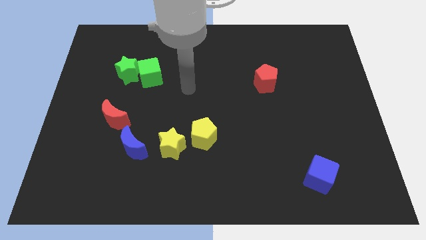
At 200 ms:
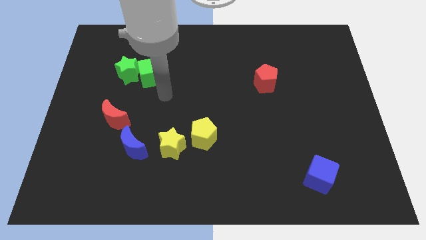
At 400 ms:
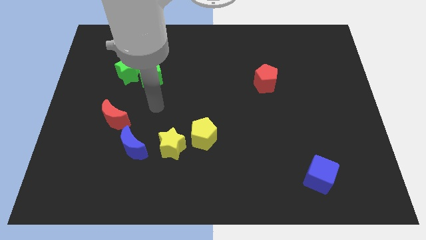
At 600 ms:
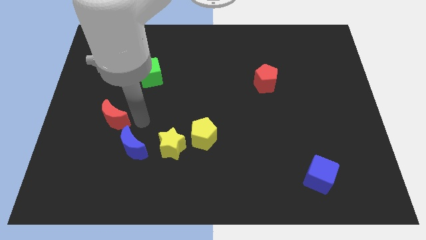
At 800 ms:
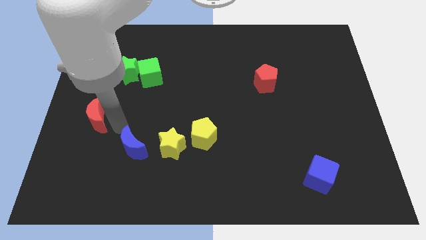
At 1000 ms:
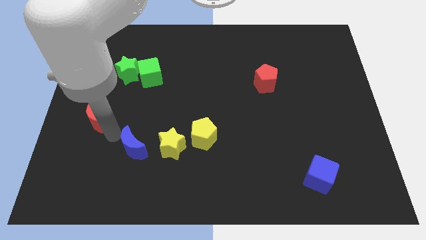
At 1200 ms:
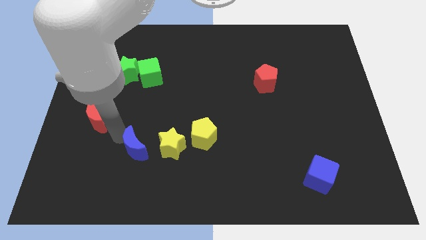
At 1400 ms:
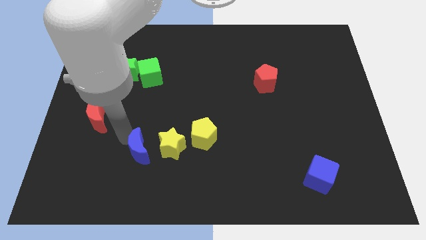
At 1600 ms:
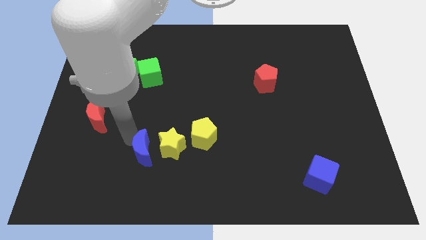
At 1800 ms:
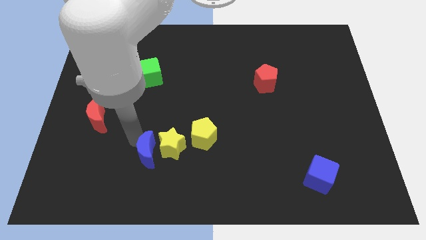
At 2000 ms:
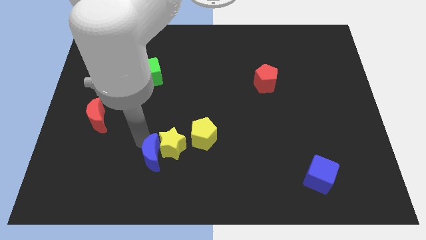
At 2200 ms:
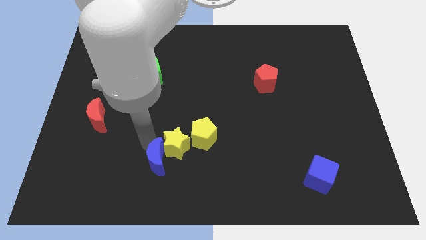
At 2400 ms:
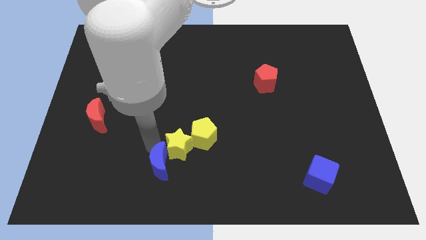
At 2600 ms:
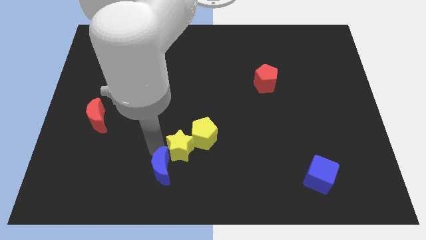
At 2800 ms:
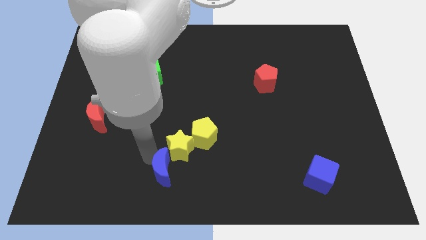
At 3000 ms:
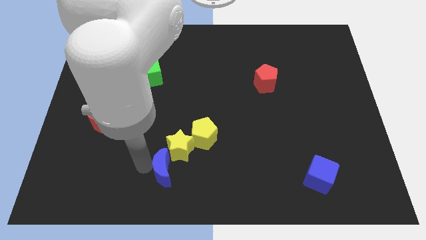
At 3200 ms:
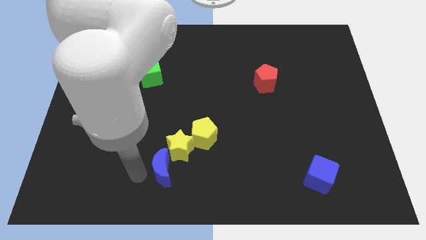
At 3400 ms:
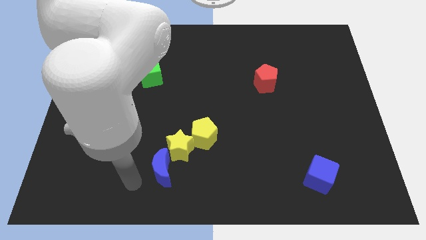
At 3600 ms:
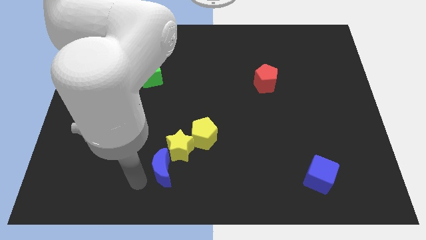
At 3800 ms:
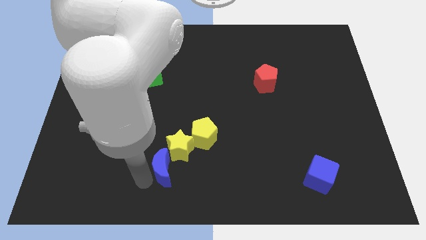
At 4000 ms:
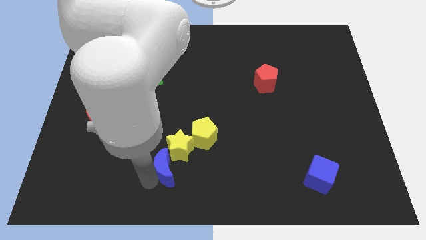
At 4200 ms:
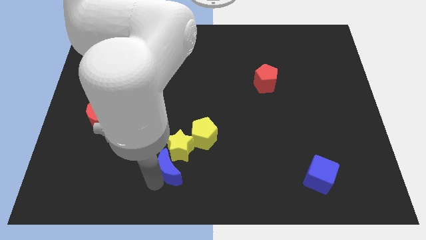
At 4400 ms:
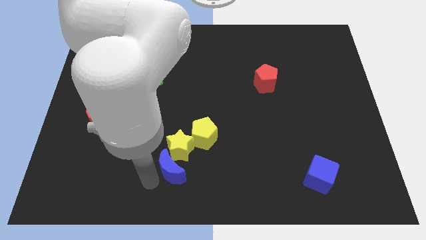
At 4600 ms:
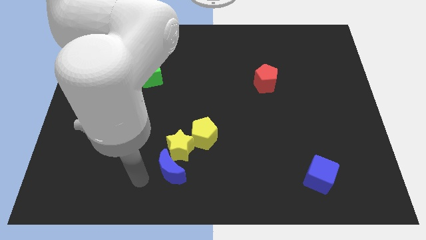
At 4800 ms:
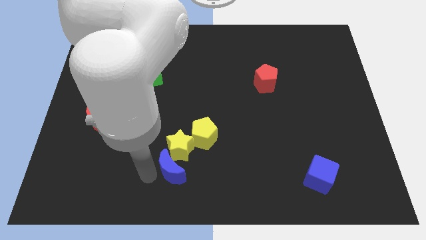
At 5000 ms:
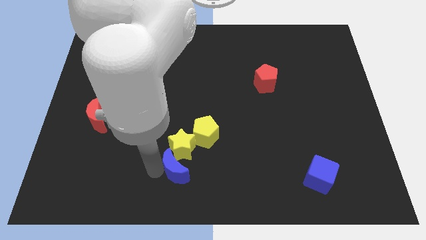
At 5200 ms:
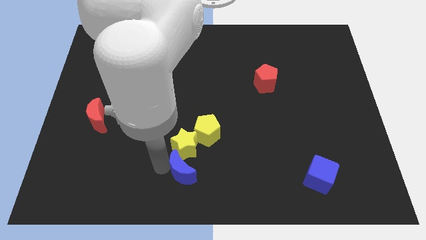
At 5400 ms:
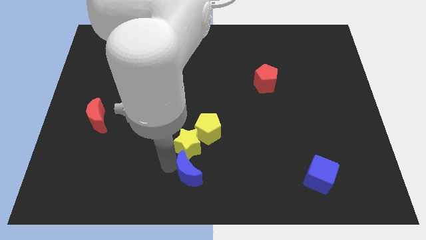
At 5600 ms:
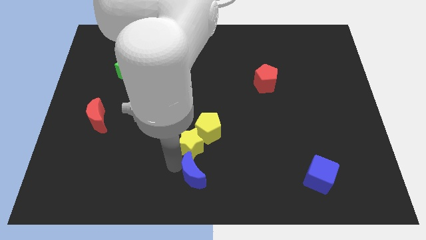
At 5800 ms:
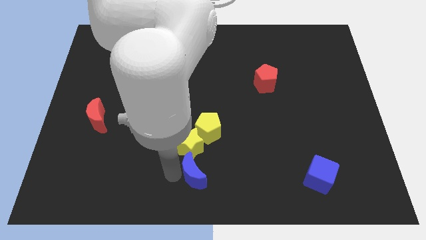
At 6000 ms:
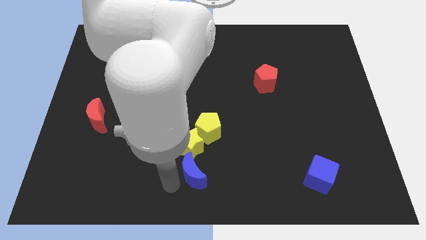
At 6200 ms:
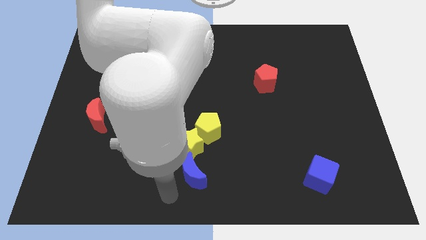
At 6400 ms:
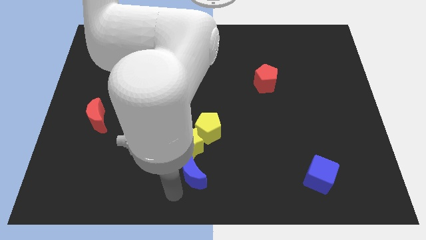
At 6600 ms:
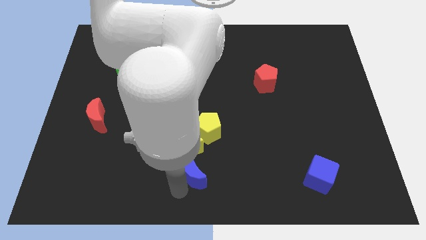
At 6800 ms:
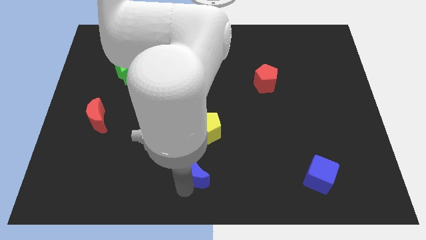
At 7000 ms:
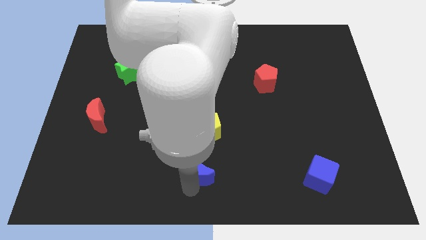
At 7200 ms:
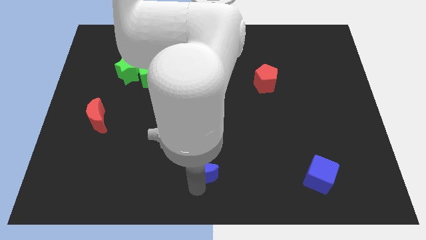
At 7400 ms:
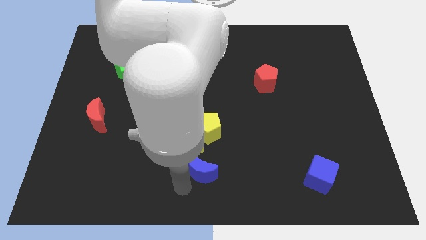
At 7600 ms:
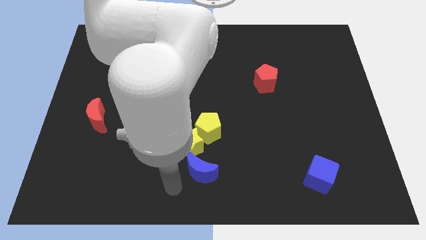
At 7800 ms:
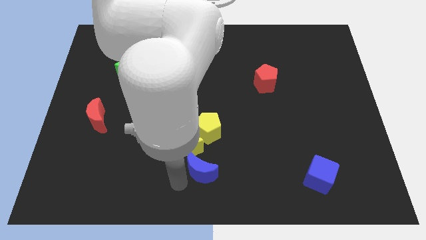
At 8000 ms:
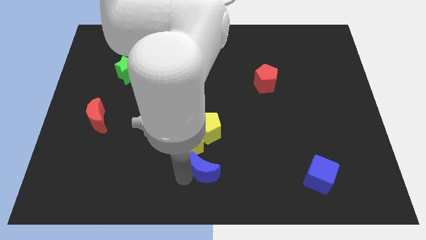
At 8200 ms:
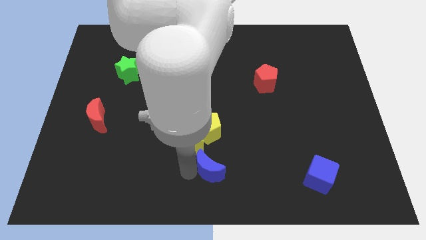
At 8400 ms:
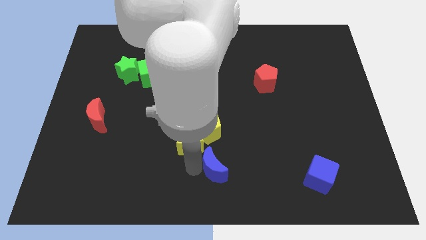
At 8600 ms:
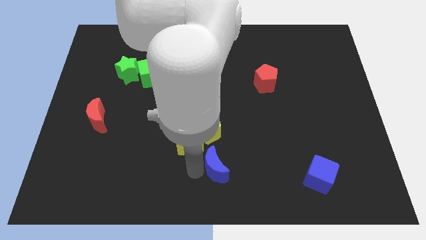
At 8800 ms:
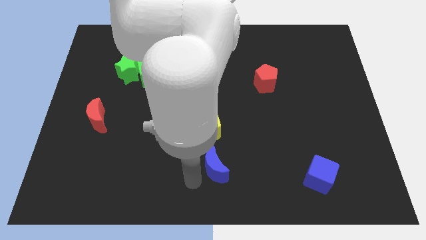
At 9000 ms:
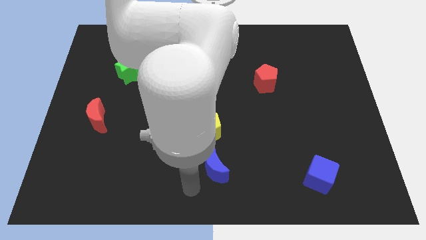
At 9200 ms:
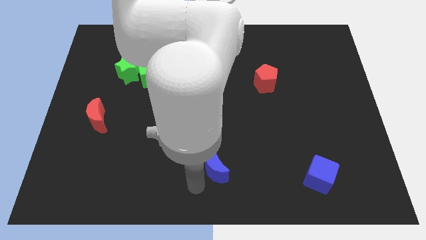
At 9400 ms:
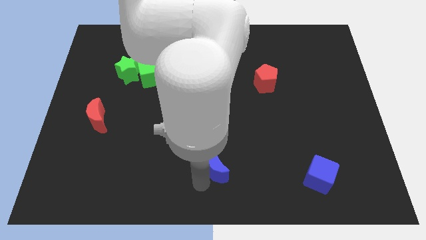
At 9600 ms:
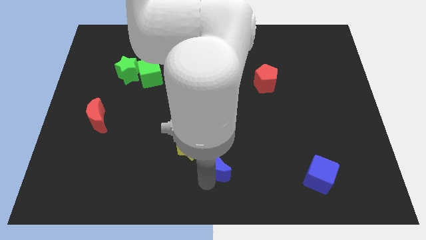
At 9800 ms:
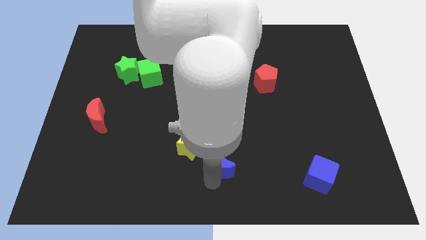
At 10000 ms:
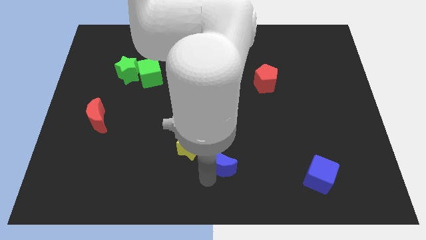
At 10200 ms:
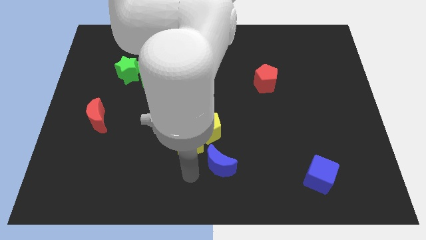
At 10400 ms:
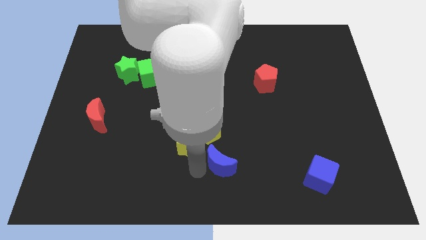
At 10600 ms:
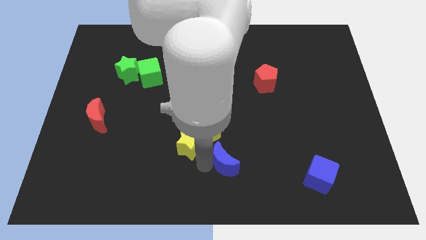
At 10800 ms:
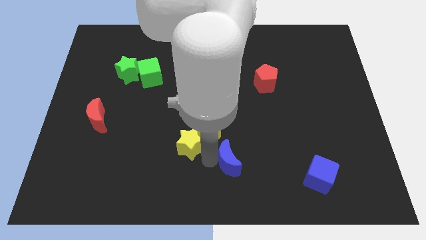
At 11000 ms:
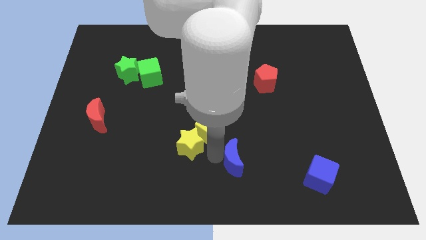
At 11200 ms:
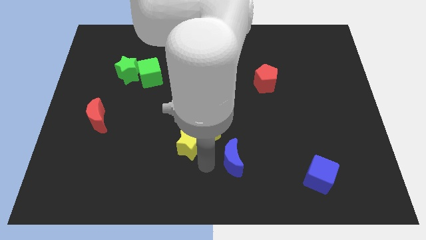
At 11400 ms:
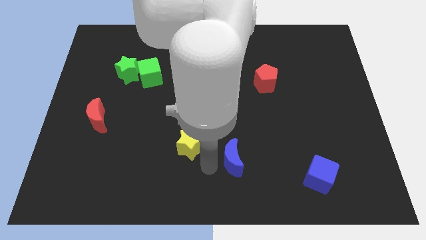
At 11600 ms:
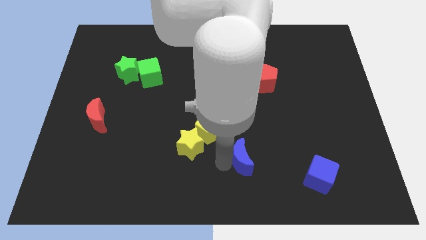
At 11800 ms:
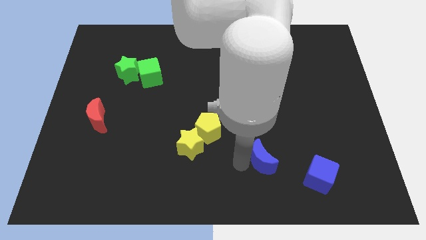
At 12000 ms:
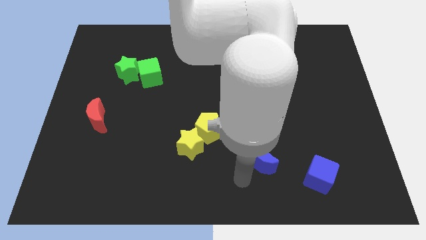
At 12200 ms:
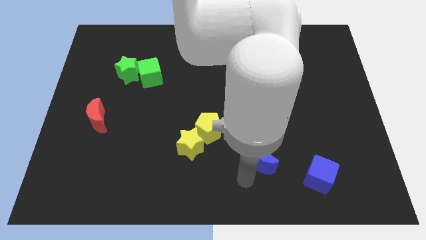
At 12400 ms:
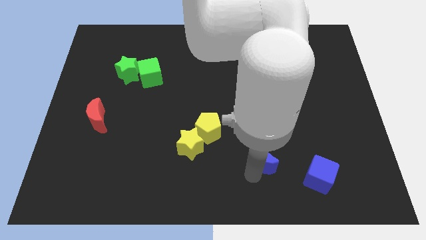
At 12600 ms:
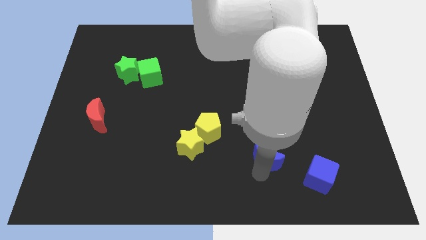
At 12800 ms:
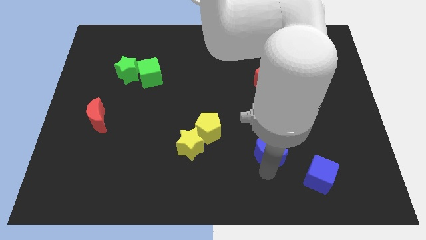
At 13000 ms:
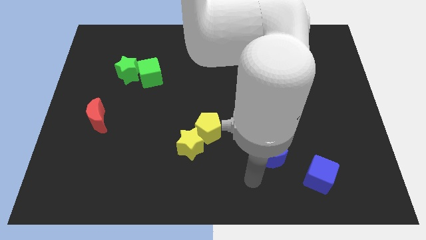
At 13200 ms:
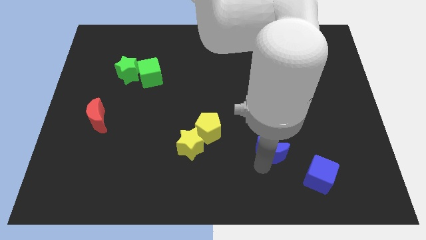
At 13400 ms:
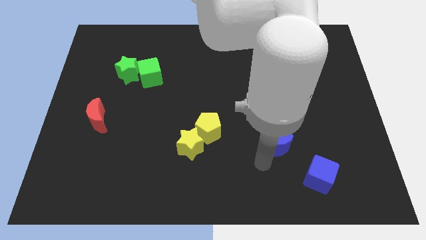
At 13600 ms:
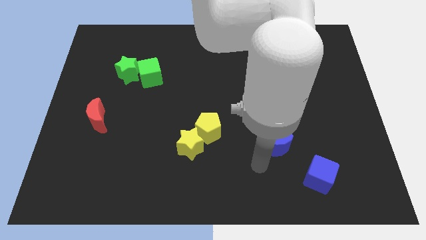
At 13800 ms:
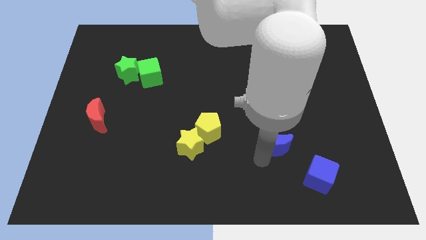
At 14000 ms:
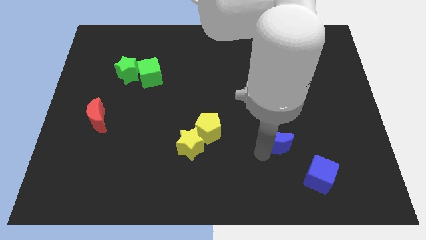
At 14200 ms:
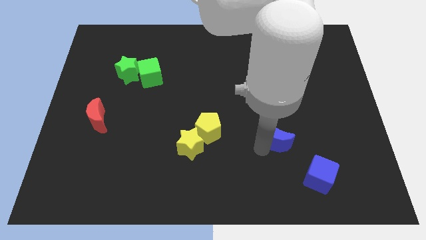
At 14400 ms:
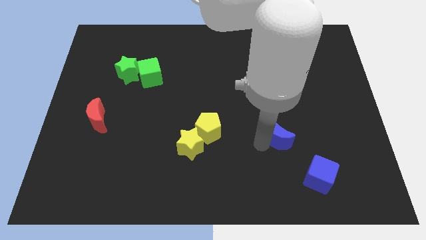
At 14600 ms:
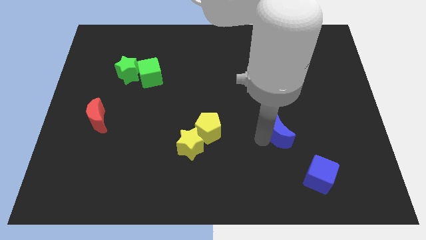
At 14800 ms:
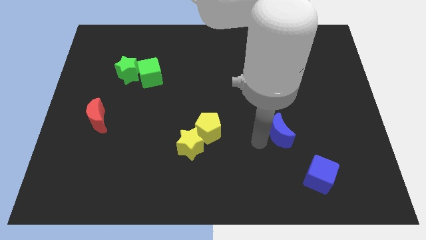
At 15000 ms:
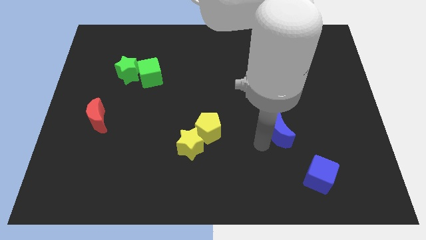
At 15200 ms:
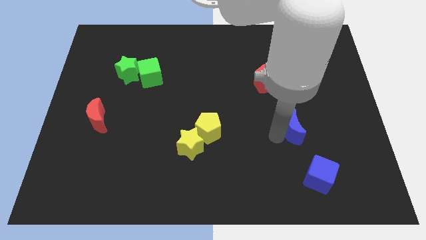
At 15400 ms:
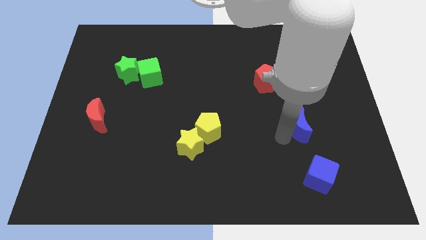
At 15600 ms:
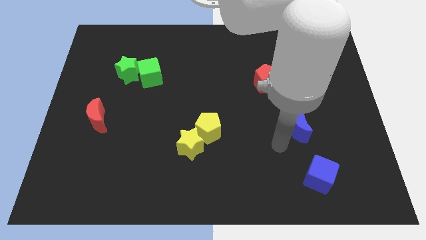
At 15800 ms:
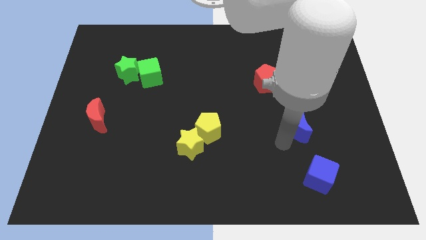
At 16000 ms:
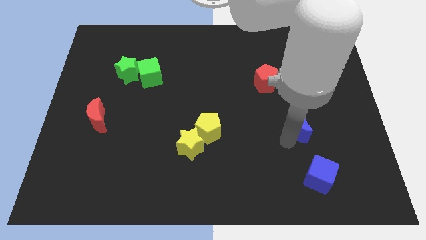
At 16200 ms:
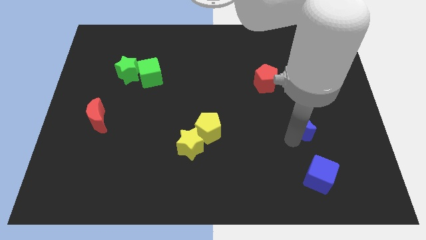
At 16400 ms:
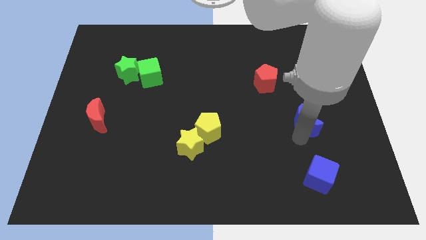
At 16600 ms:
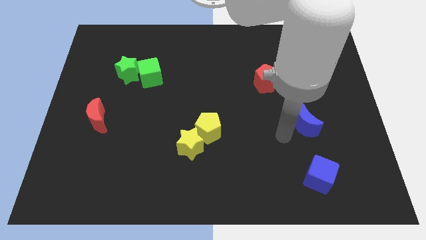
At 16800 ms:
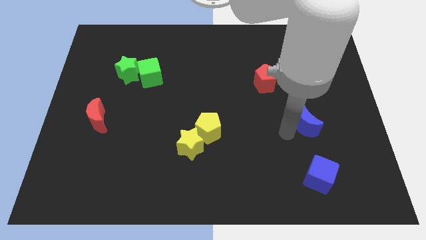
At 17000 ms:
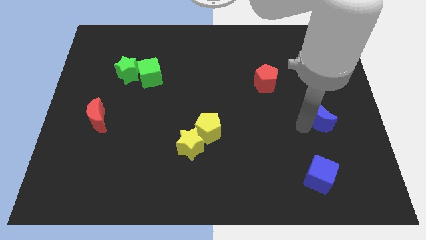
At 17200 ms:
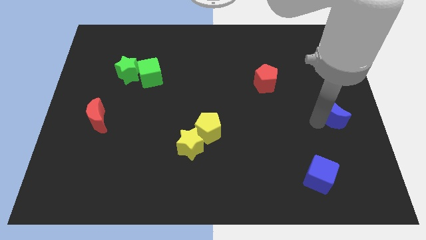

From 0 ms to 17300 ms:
slide the blue moon to the right side of the board
